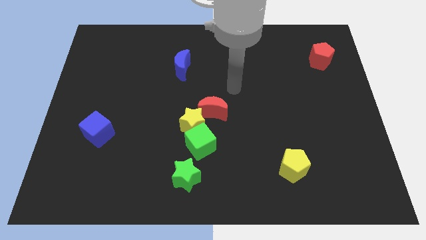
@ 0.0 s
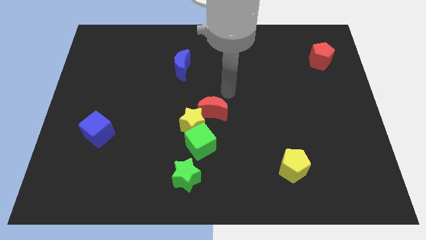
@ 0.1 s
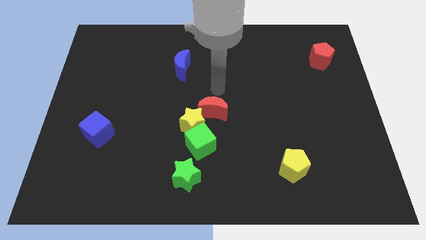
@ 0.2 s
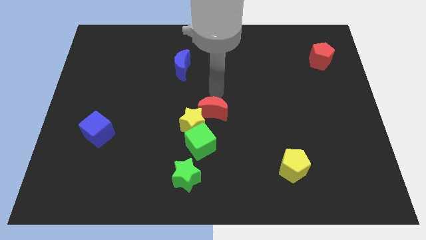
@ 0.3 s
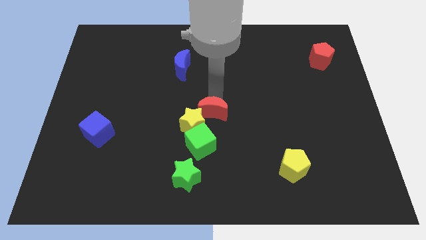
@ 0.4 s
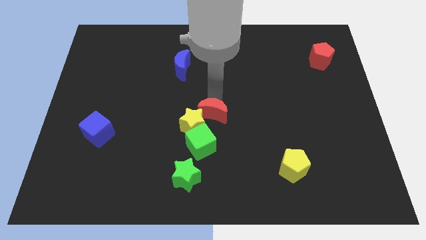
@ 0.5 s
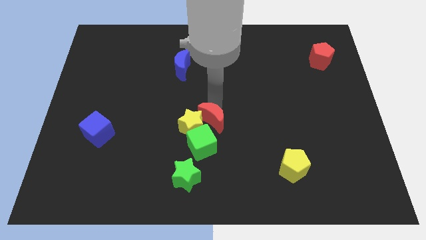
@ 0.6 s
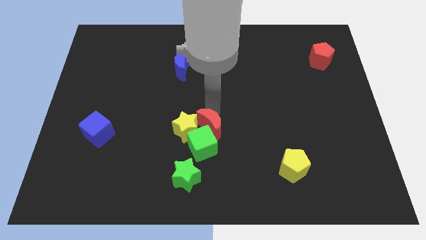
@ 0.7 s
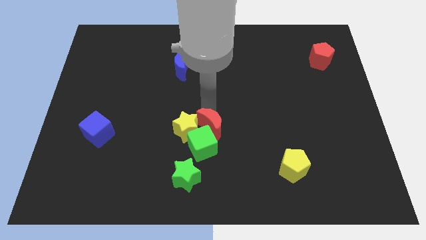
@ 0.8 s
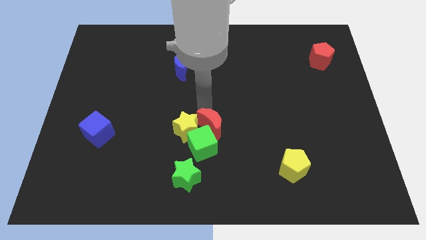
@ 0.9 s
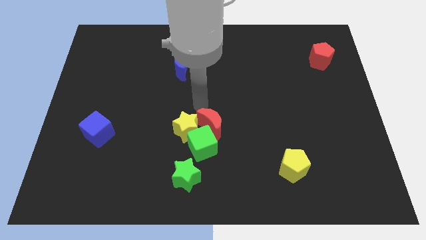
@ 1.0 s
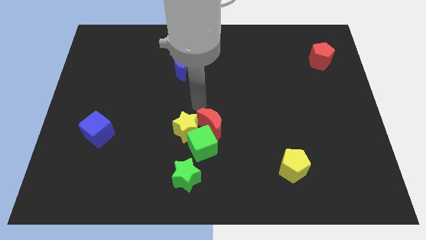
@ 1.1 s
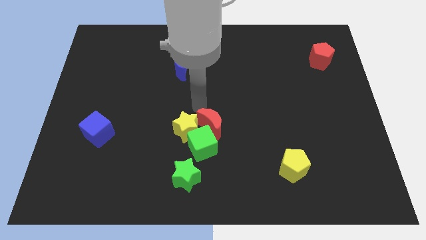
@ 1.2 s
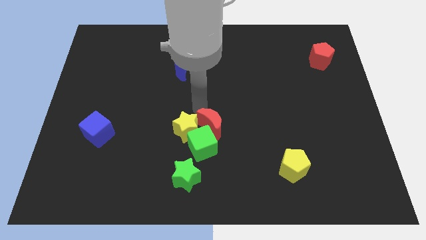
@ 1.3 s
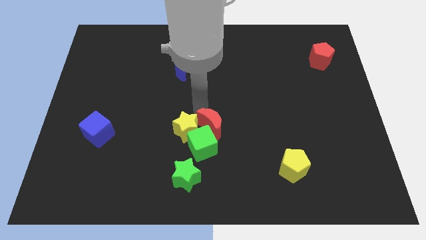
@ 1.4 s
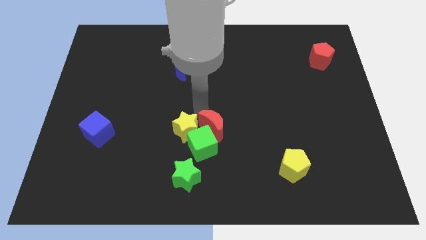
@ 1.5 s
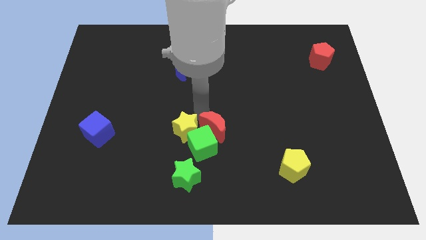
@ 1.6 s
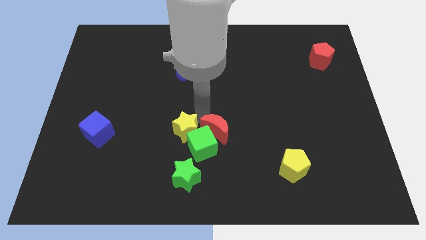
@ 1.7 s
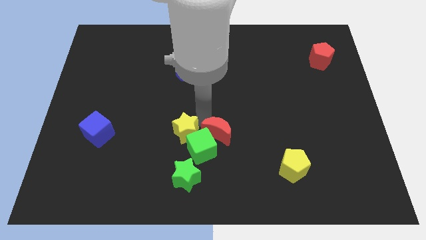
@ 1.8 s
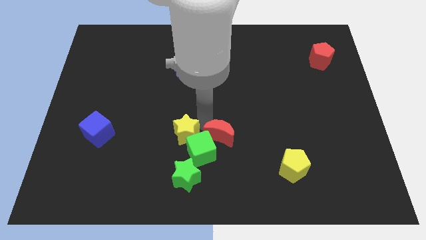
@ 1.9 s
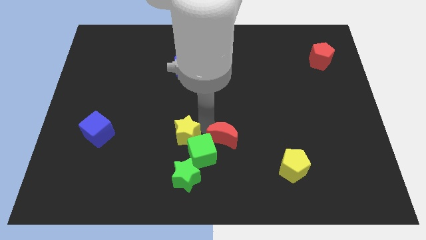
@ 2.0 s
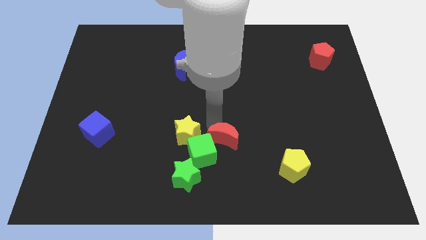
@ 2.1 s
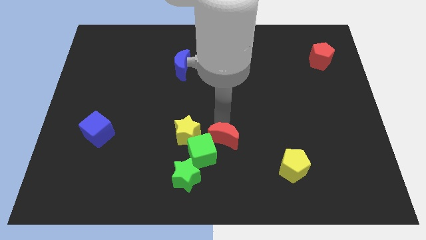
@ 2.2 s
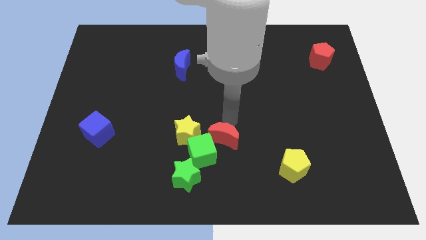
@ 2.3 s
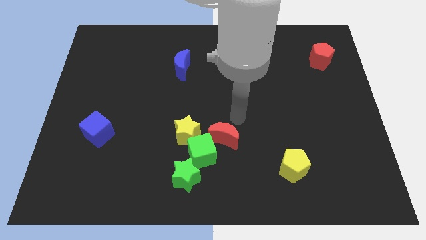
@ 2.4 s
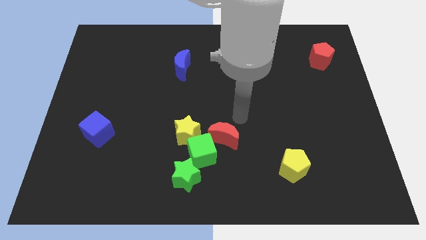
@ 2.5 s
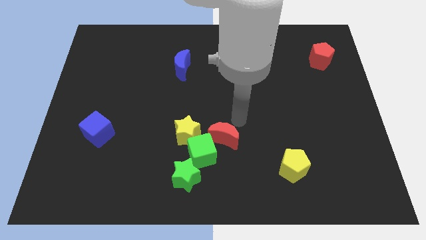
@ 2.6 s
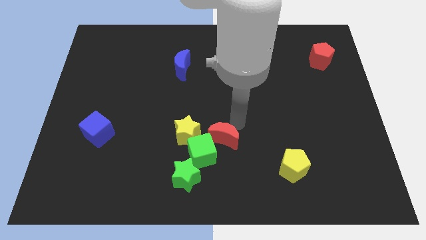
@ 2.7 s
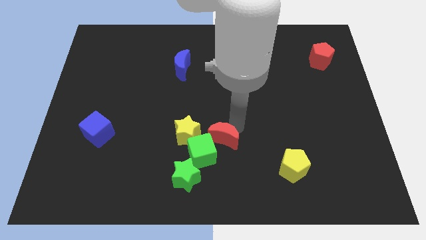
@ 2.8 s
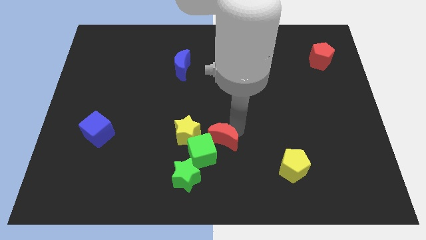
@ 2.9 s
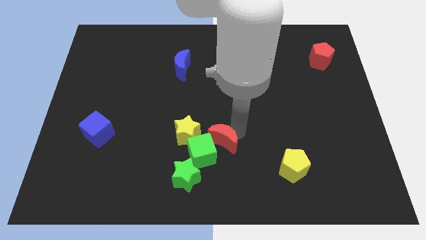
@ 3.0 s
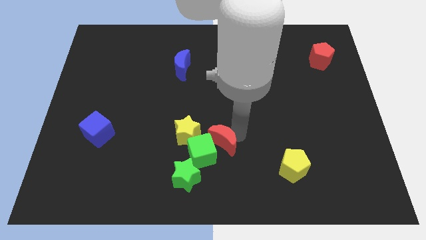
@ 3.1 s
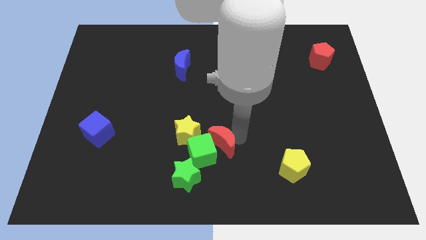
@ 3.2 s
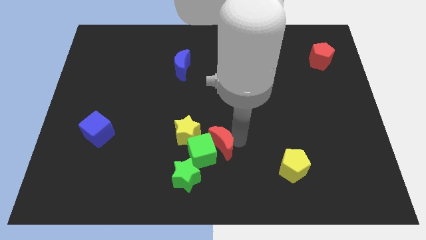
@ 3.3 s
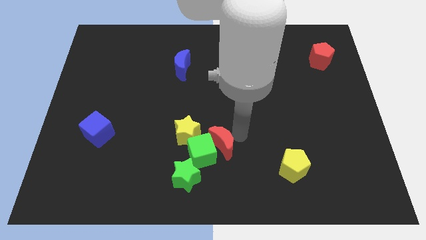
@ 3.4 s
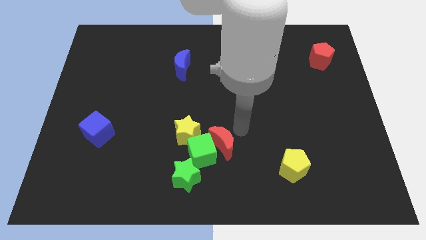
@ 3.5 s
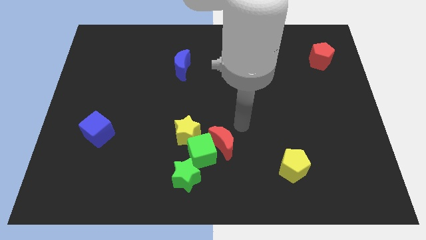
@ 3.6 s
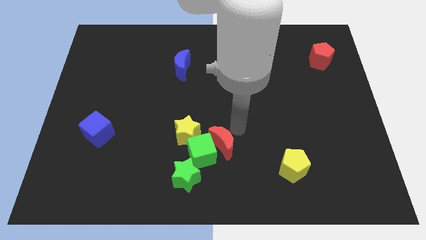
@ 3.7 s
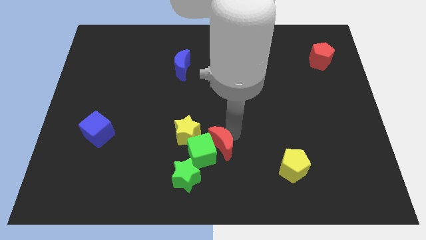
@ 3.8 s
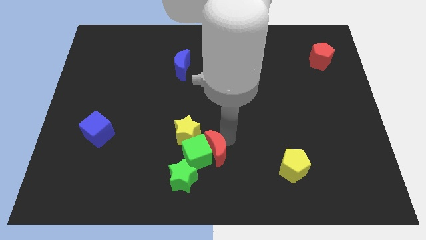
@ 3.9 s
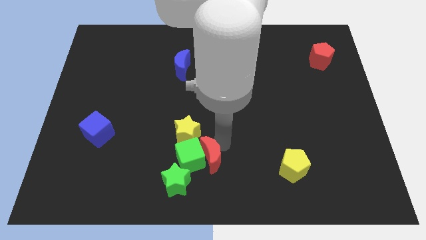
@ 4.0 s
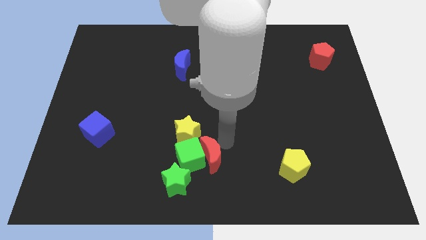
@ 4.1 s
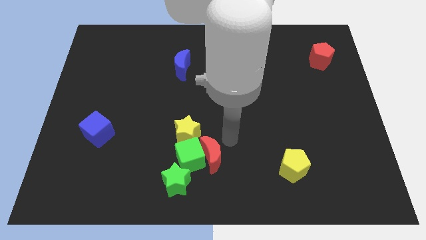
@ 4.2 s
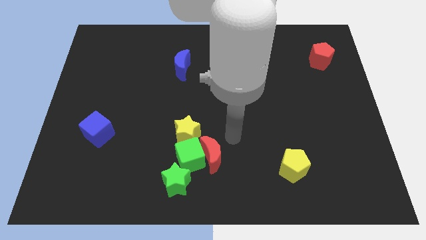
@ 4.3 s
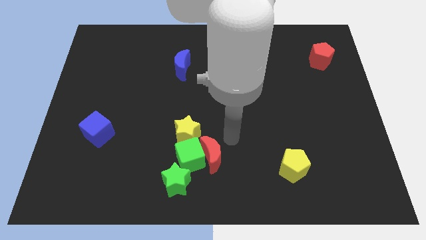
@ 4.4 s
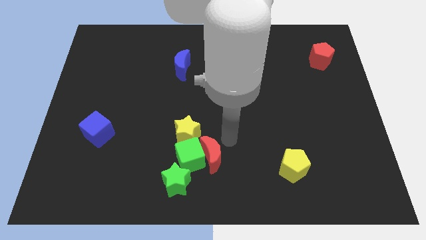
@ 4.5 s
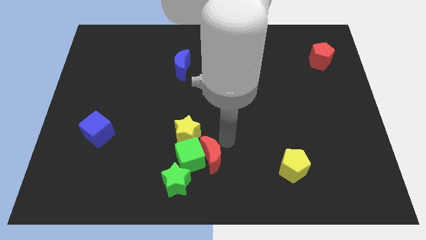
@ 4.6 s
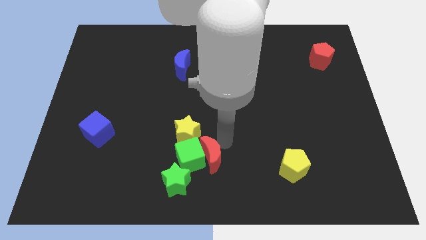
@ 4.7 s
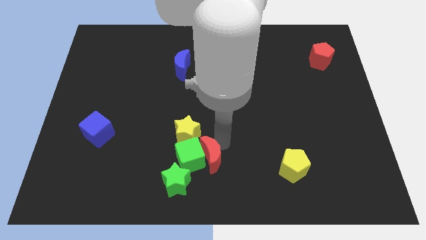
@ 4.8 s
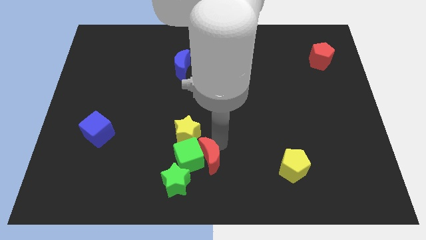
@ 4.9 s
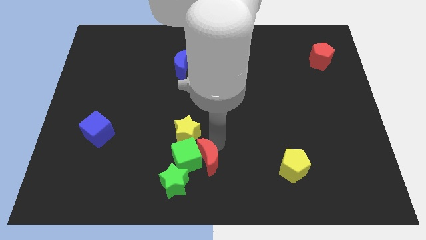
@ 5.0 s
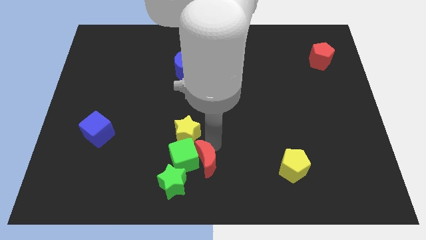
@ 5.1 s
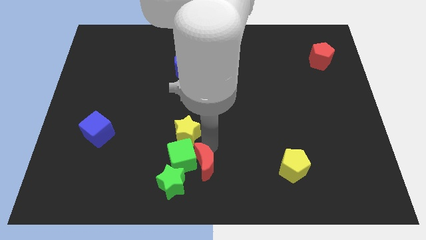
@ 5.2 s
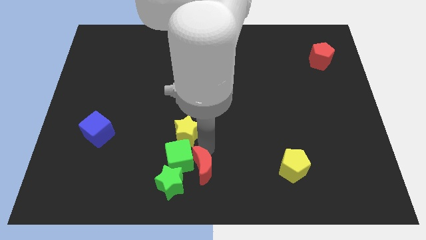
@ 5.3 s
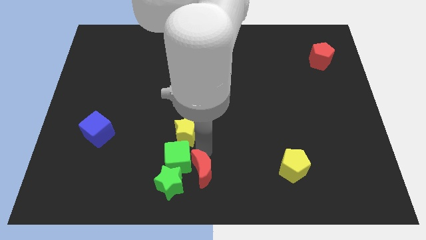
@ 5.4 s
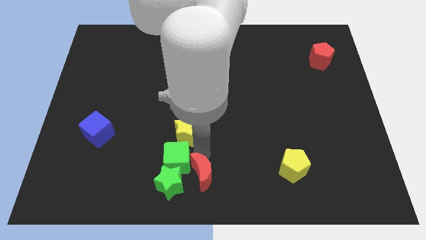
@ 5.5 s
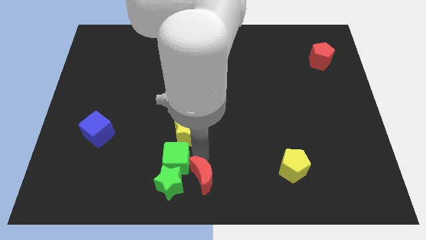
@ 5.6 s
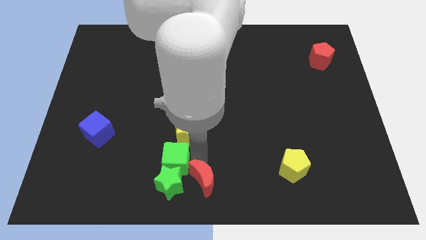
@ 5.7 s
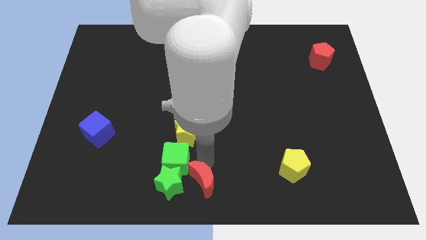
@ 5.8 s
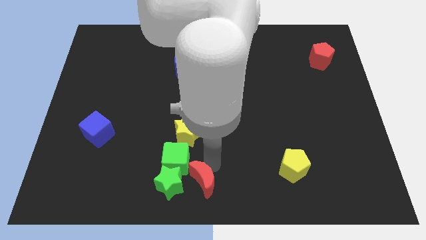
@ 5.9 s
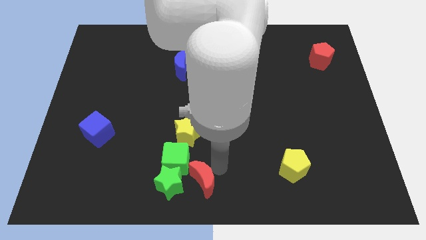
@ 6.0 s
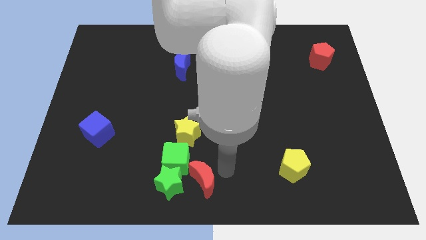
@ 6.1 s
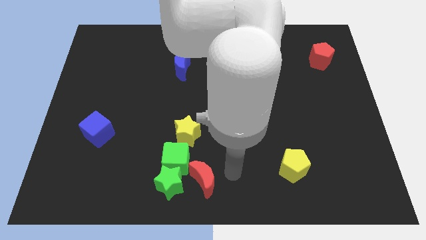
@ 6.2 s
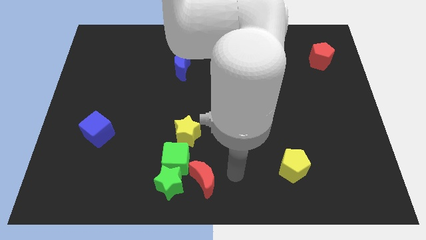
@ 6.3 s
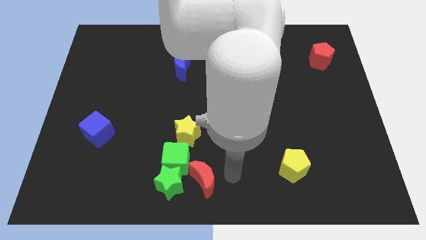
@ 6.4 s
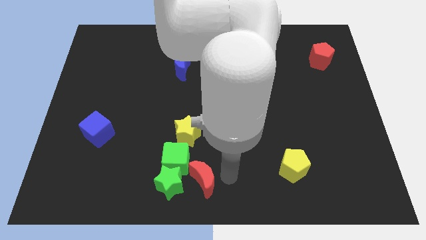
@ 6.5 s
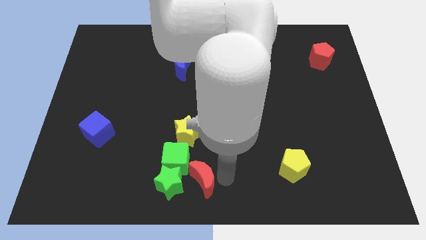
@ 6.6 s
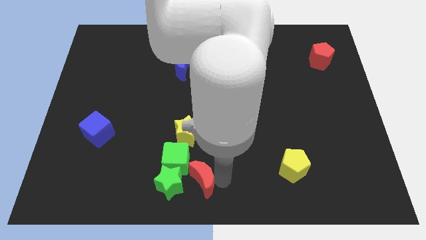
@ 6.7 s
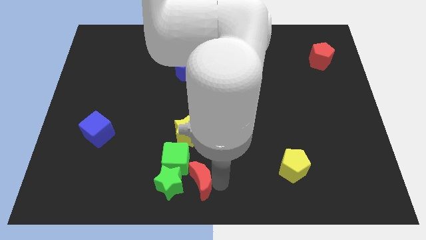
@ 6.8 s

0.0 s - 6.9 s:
slide the red moon to the green star

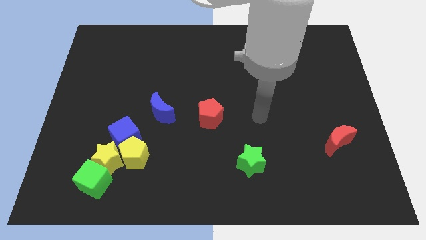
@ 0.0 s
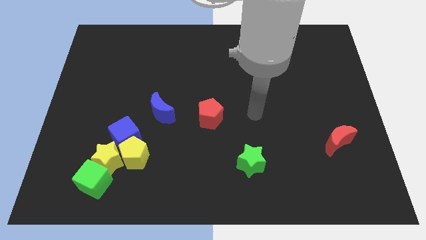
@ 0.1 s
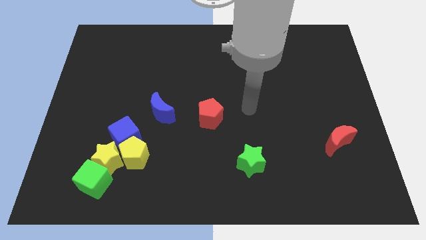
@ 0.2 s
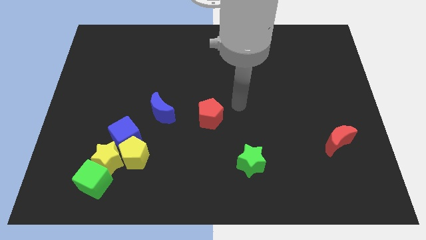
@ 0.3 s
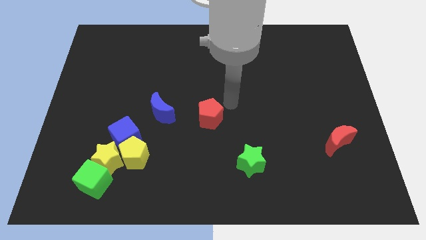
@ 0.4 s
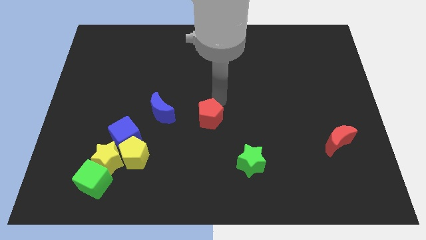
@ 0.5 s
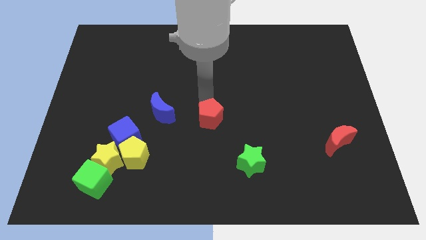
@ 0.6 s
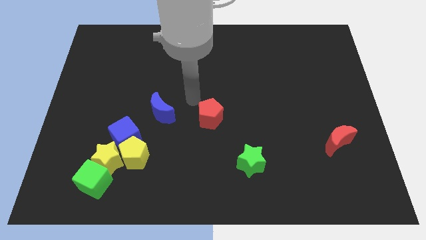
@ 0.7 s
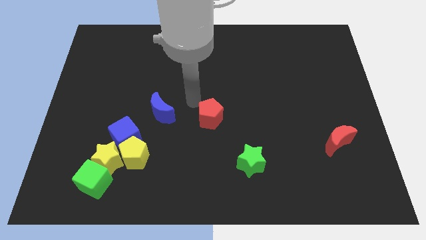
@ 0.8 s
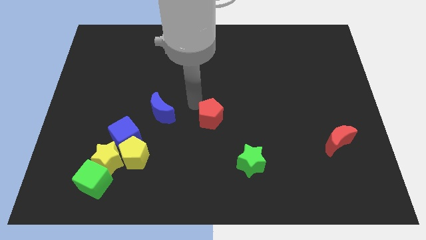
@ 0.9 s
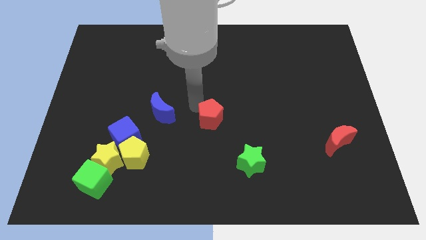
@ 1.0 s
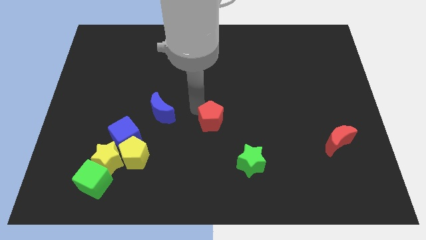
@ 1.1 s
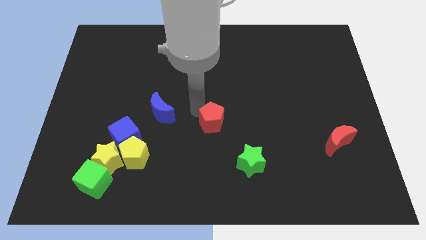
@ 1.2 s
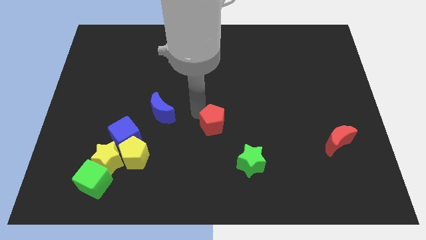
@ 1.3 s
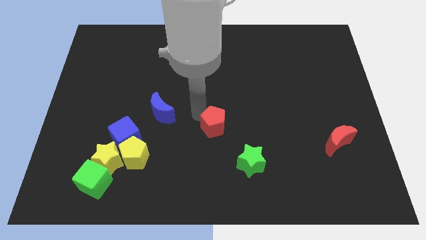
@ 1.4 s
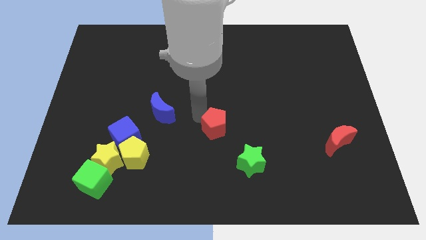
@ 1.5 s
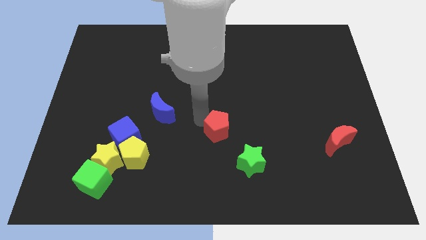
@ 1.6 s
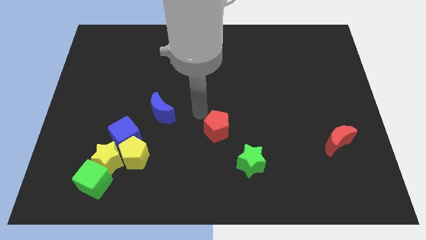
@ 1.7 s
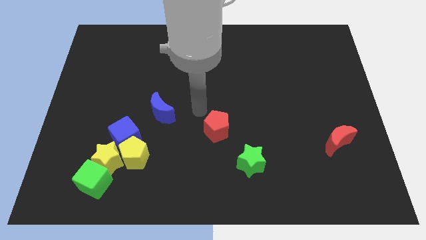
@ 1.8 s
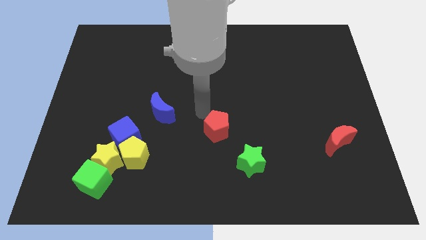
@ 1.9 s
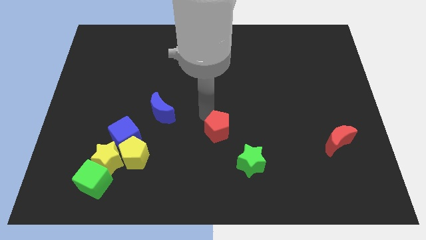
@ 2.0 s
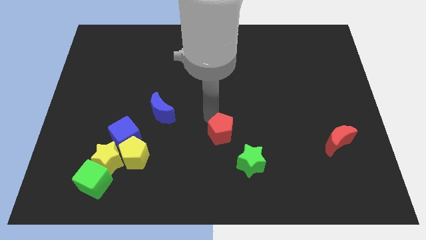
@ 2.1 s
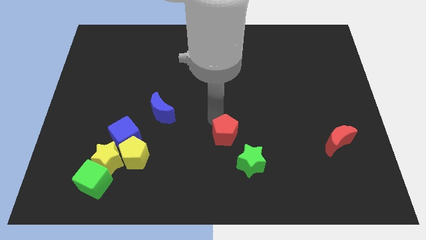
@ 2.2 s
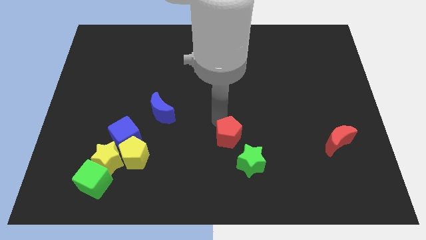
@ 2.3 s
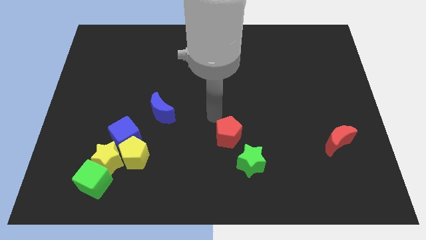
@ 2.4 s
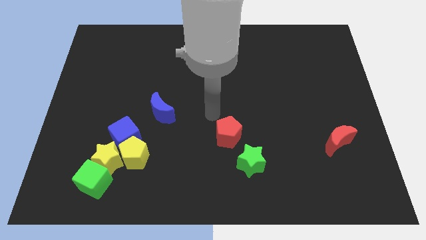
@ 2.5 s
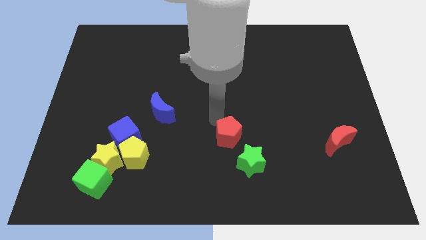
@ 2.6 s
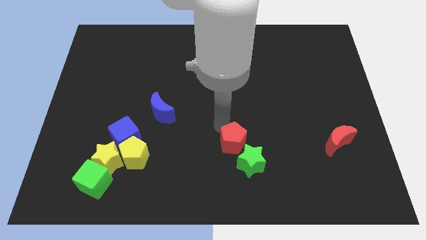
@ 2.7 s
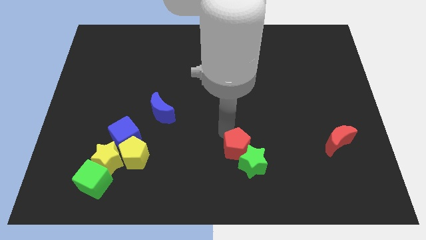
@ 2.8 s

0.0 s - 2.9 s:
push the red pentagon to the green star
